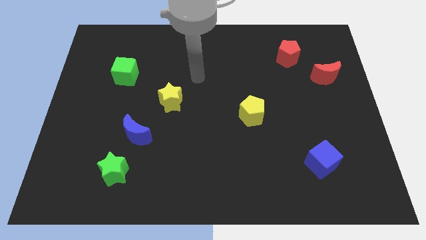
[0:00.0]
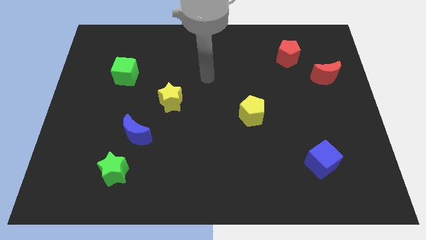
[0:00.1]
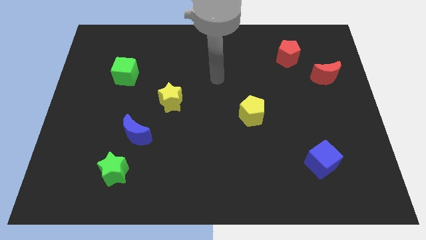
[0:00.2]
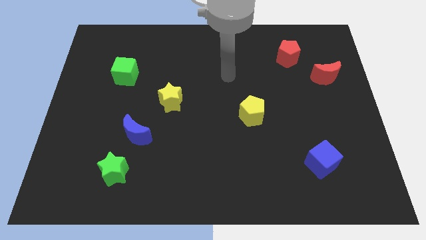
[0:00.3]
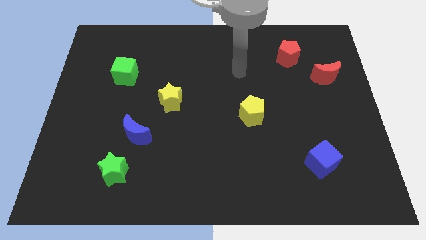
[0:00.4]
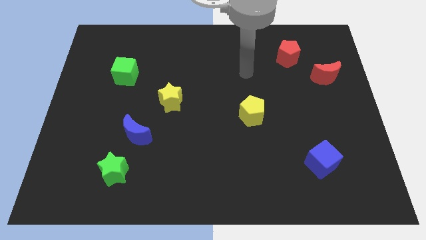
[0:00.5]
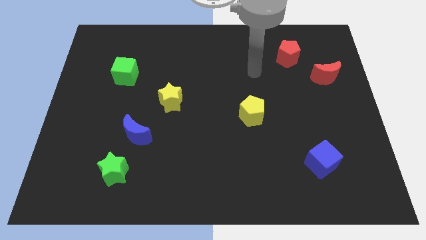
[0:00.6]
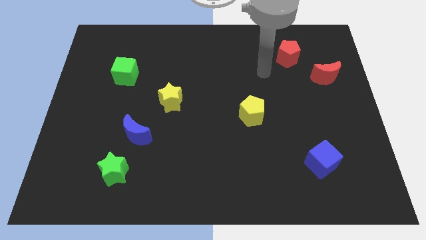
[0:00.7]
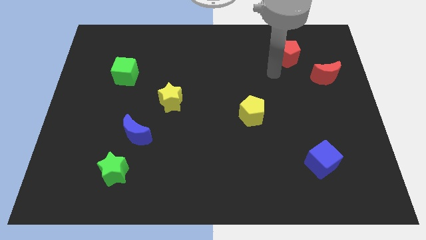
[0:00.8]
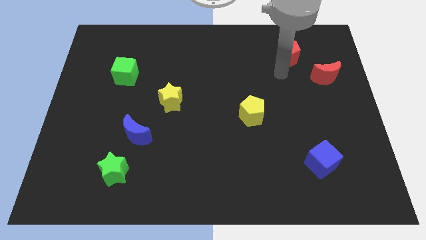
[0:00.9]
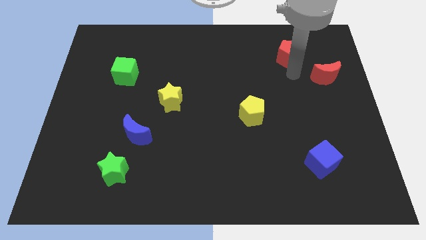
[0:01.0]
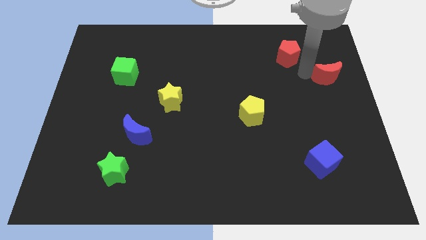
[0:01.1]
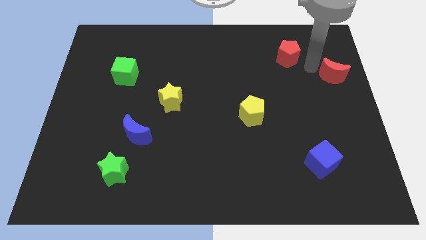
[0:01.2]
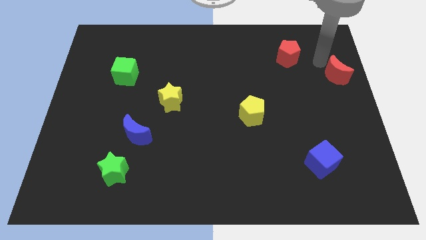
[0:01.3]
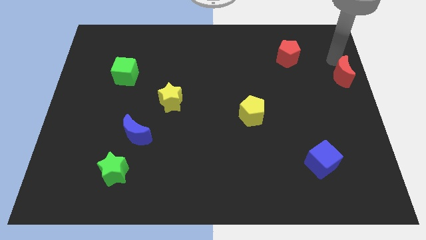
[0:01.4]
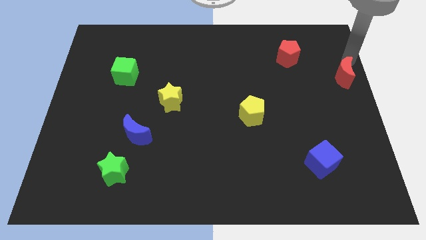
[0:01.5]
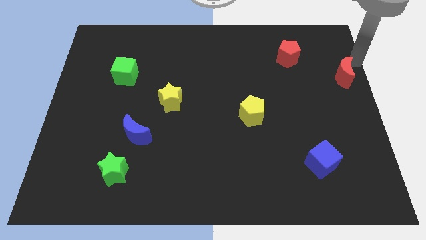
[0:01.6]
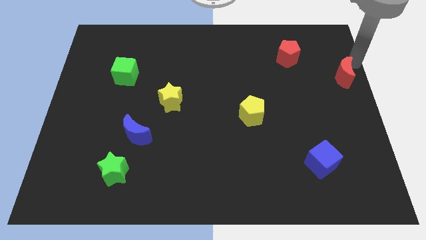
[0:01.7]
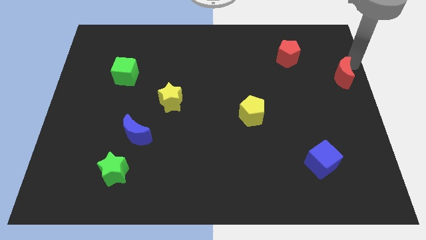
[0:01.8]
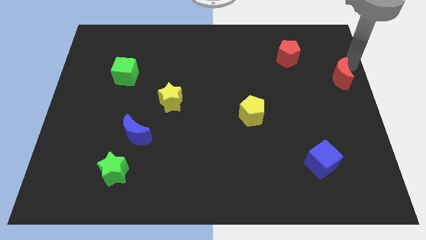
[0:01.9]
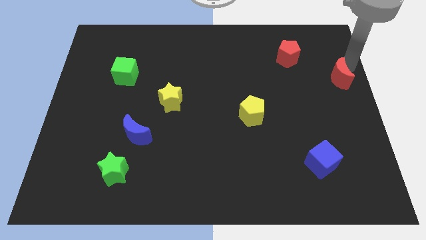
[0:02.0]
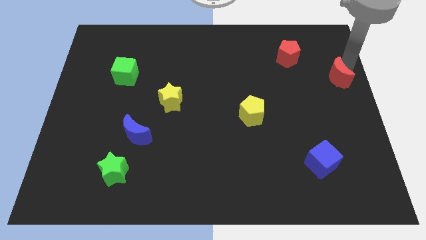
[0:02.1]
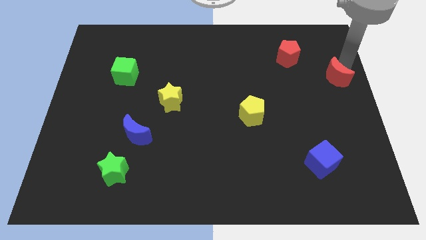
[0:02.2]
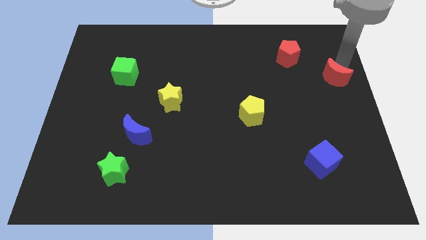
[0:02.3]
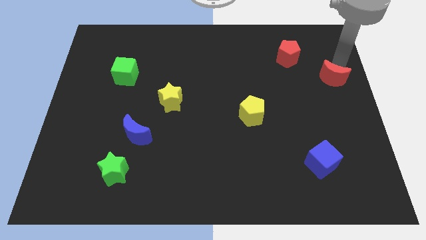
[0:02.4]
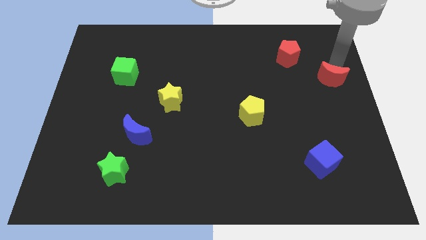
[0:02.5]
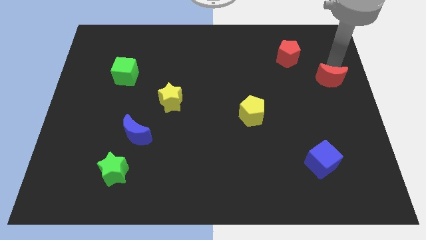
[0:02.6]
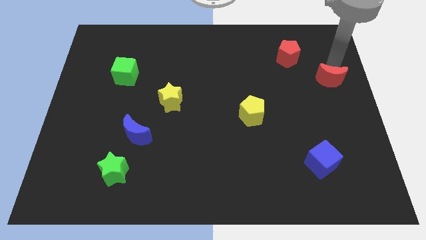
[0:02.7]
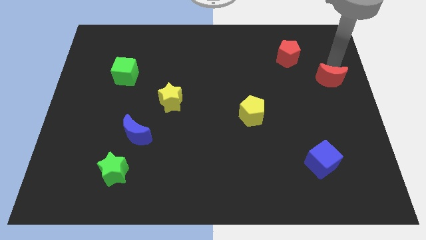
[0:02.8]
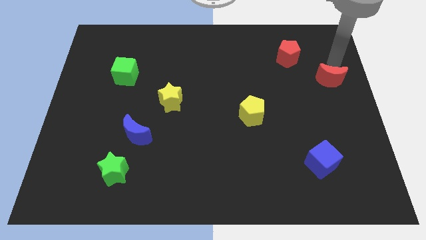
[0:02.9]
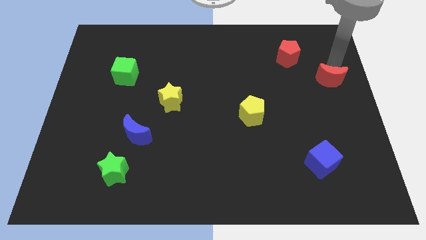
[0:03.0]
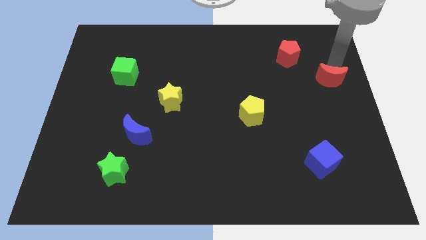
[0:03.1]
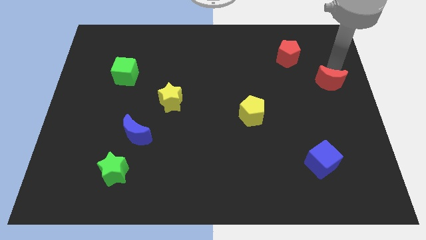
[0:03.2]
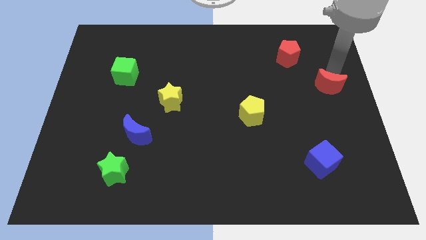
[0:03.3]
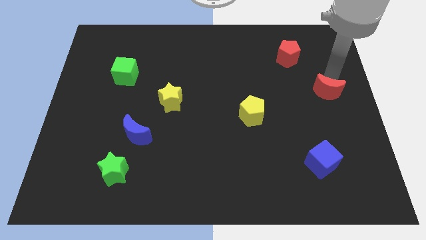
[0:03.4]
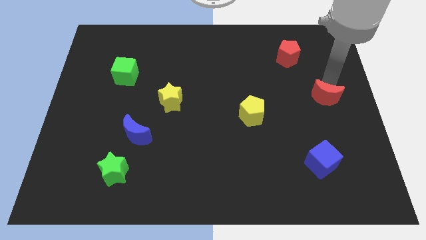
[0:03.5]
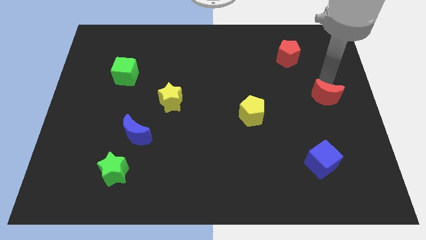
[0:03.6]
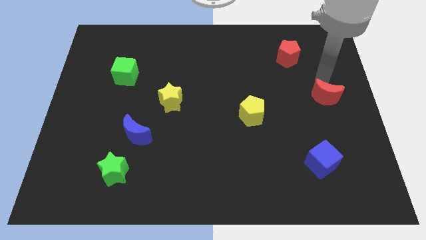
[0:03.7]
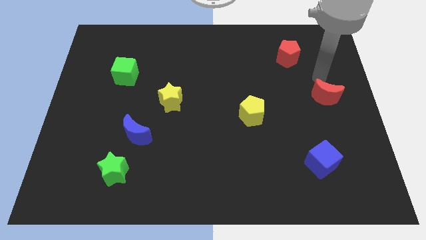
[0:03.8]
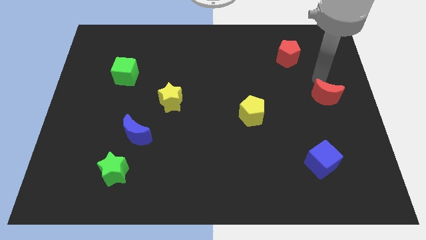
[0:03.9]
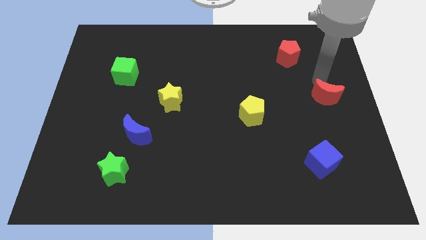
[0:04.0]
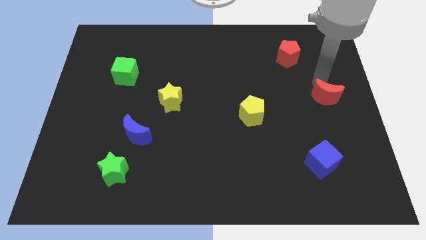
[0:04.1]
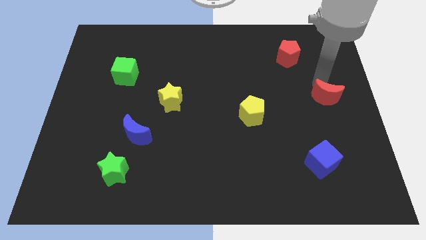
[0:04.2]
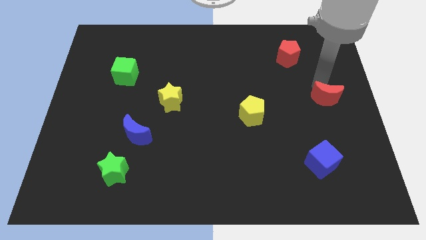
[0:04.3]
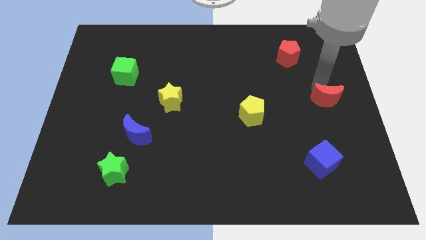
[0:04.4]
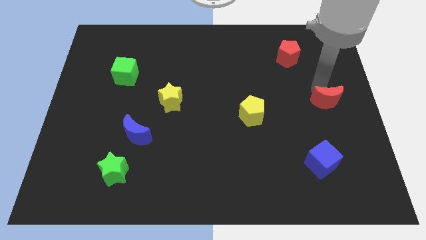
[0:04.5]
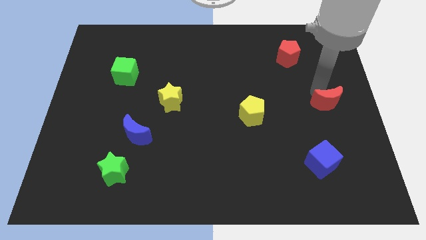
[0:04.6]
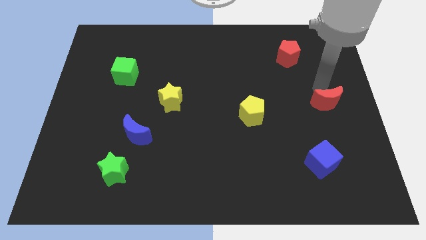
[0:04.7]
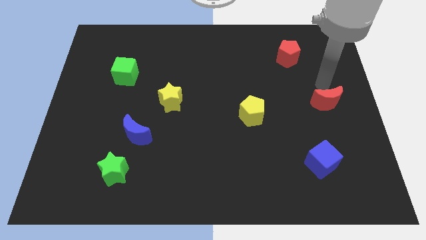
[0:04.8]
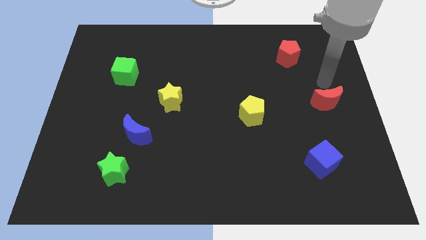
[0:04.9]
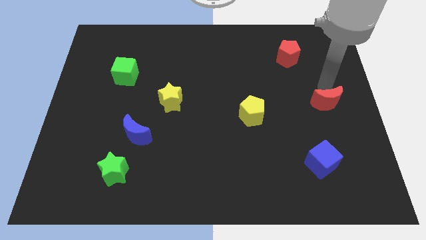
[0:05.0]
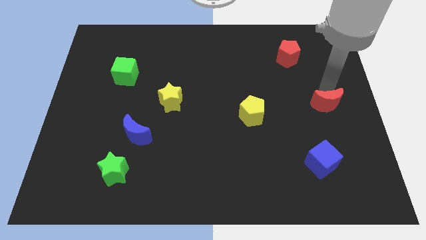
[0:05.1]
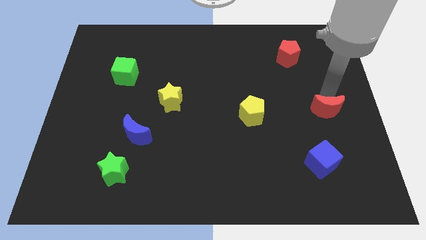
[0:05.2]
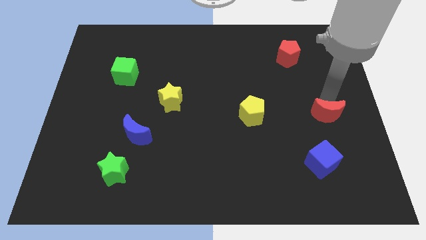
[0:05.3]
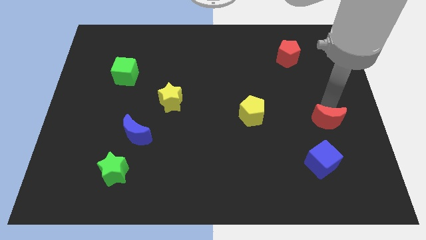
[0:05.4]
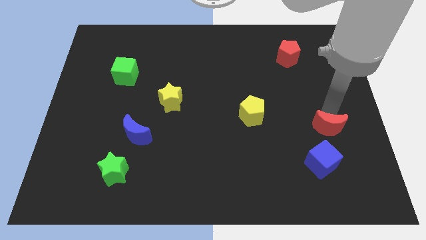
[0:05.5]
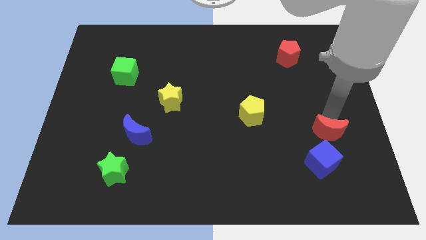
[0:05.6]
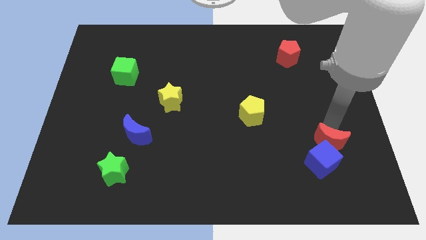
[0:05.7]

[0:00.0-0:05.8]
slide the red moon towards the blue cube

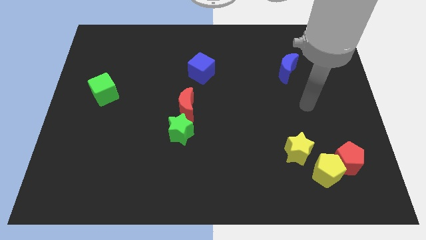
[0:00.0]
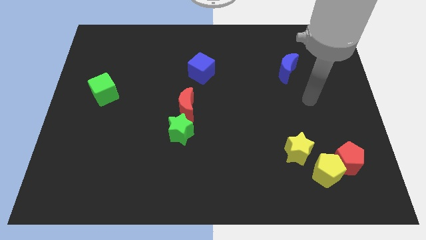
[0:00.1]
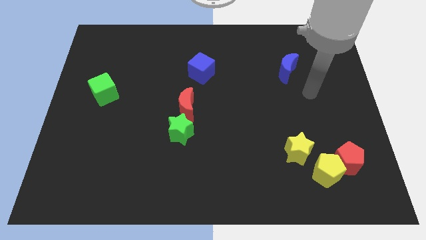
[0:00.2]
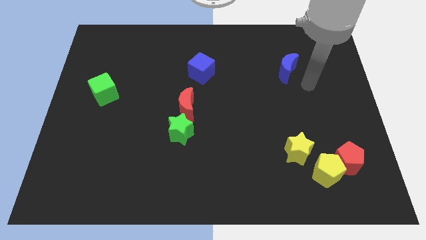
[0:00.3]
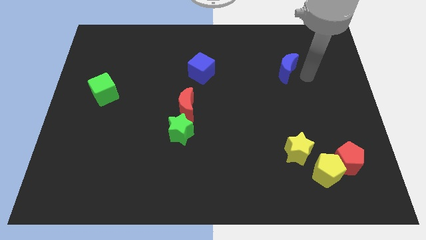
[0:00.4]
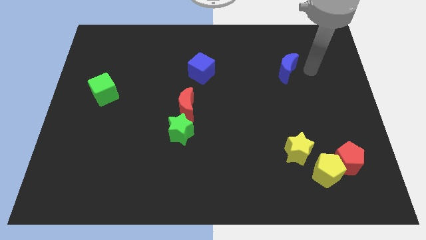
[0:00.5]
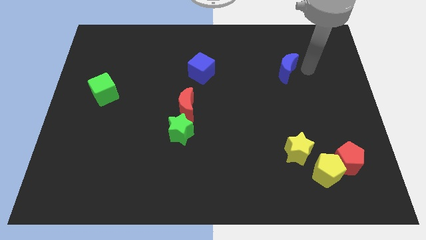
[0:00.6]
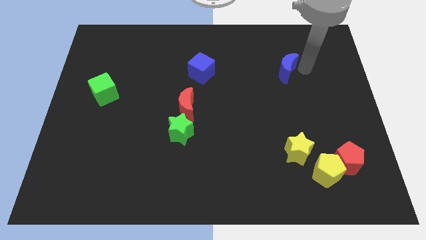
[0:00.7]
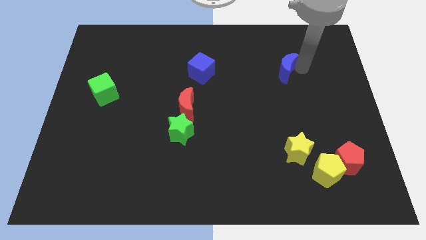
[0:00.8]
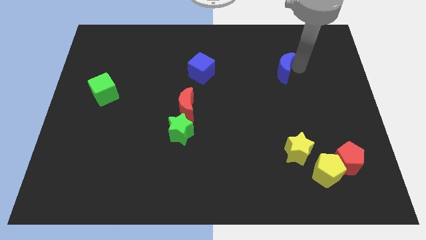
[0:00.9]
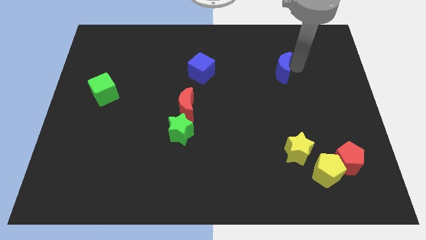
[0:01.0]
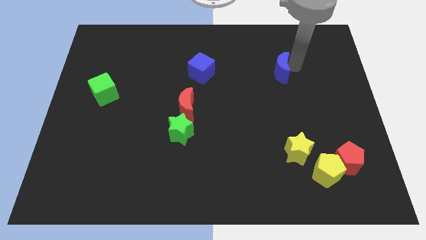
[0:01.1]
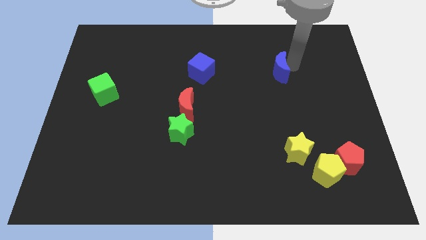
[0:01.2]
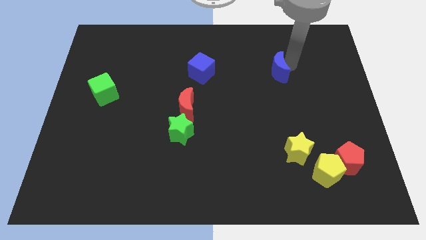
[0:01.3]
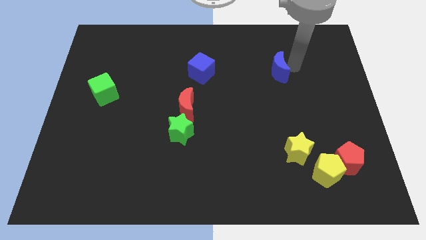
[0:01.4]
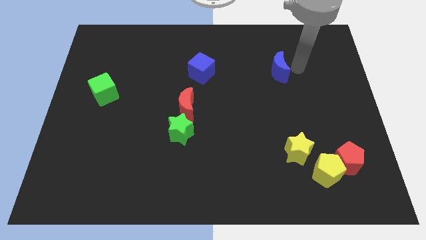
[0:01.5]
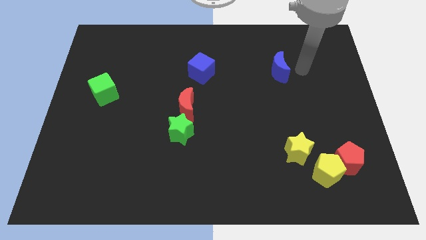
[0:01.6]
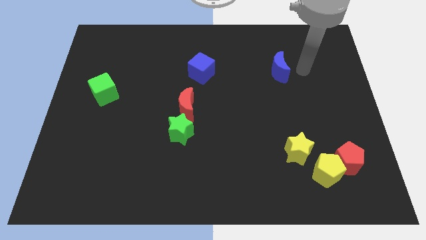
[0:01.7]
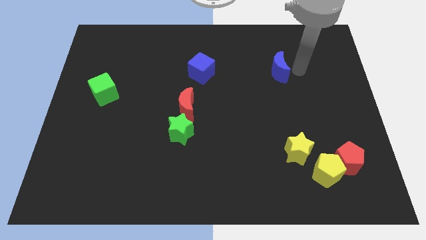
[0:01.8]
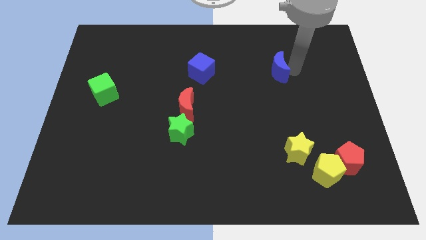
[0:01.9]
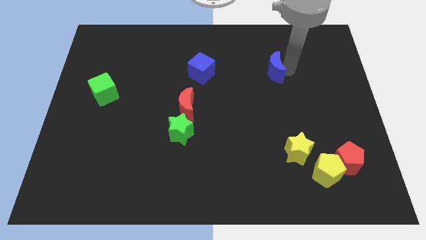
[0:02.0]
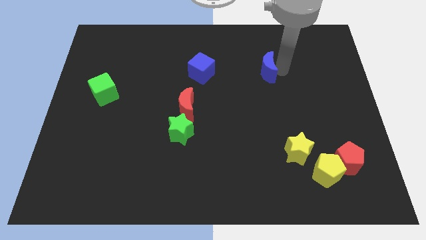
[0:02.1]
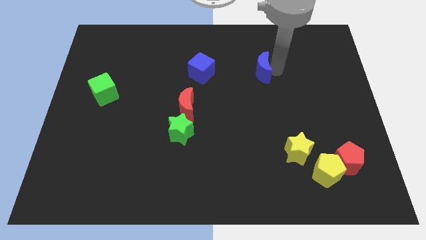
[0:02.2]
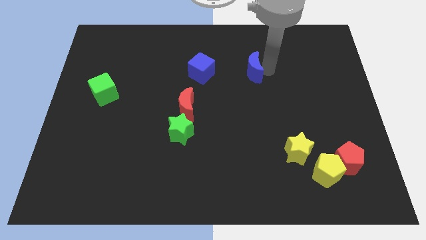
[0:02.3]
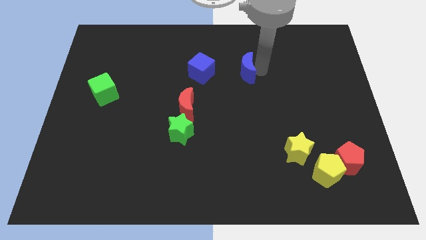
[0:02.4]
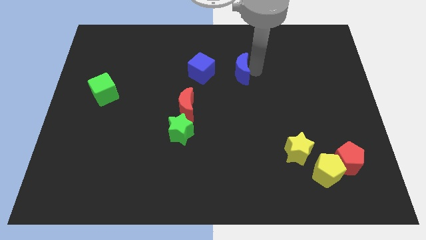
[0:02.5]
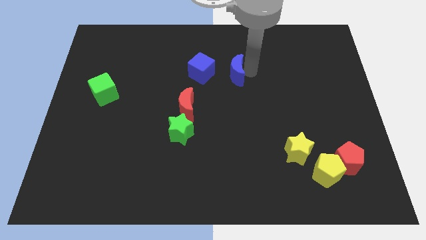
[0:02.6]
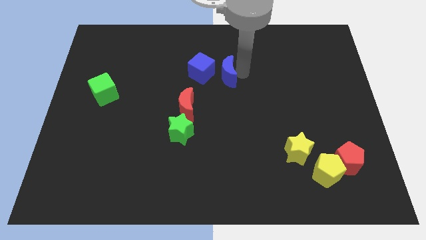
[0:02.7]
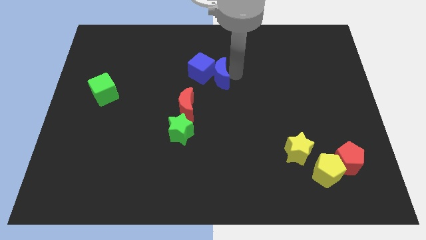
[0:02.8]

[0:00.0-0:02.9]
push the blue moon to the blue cube
